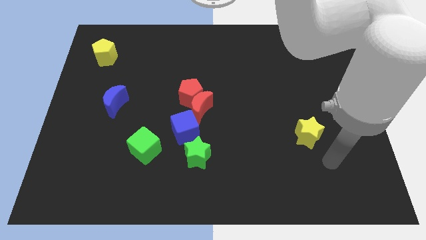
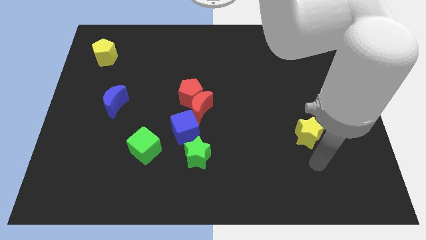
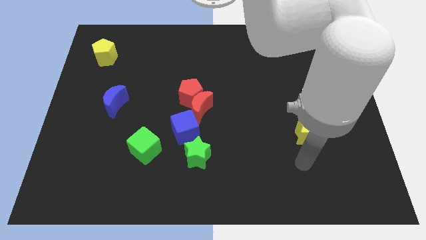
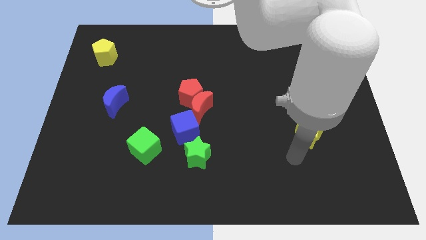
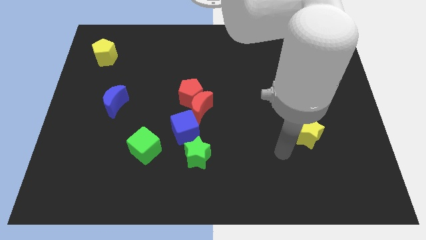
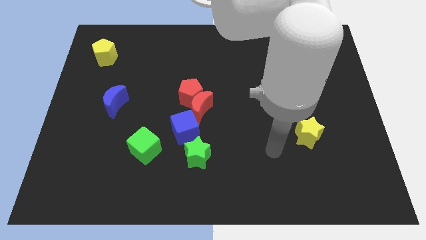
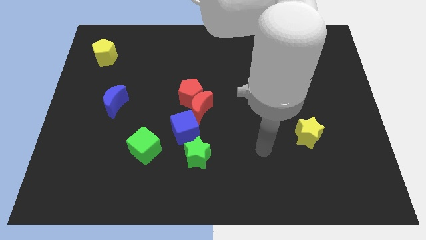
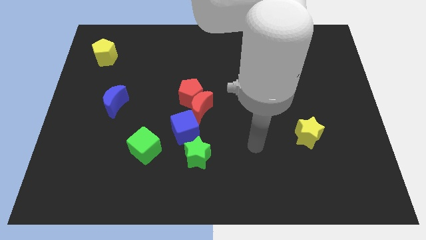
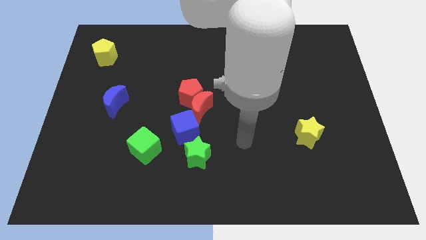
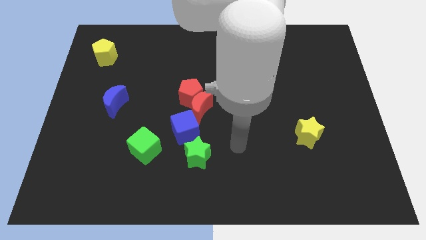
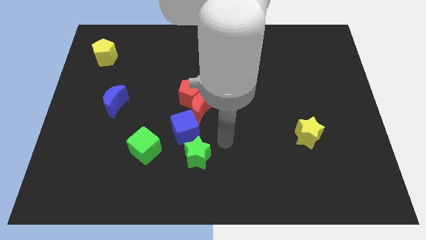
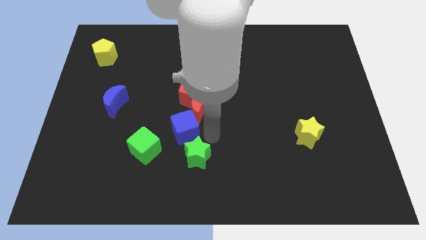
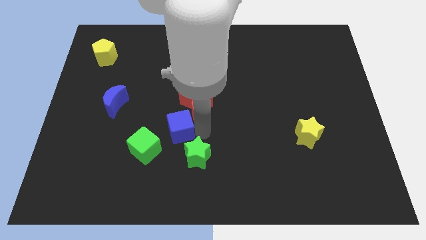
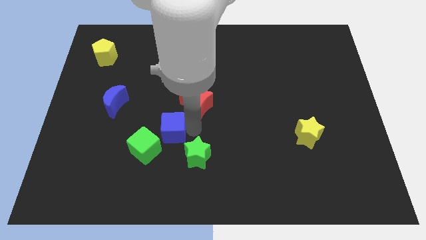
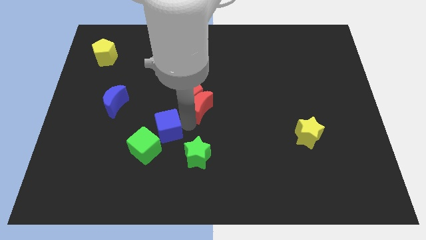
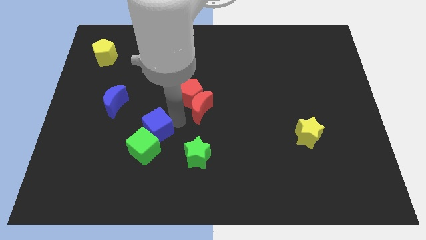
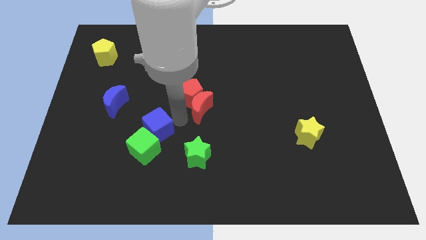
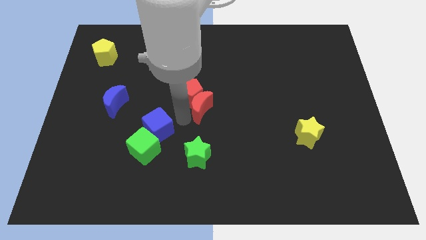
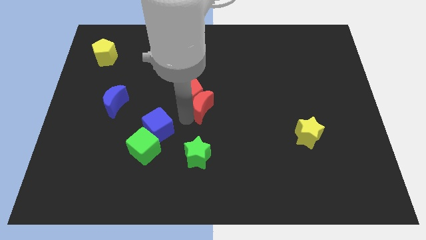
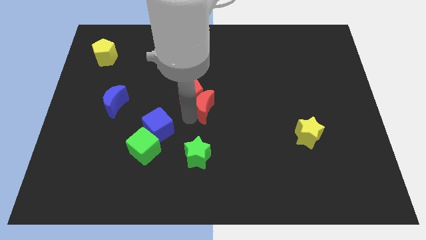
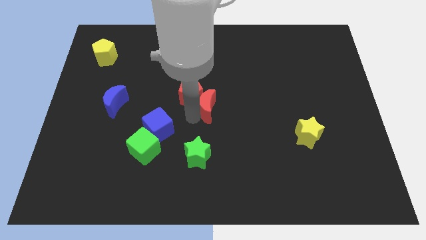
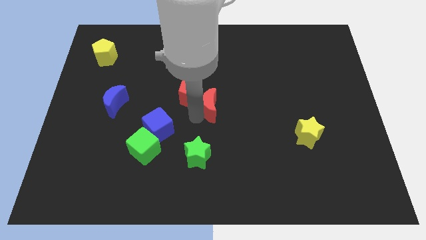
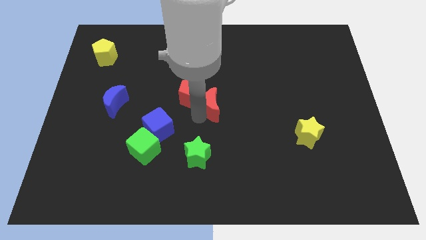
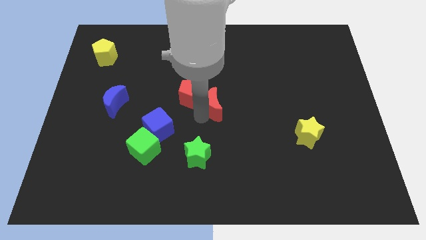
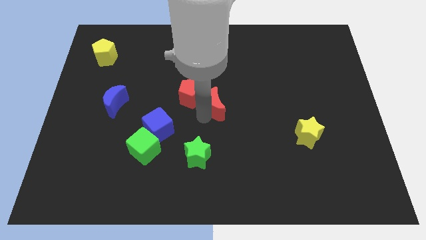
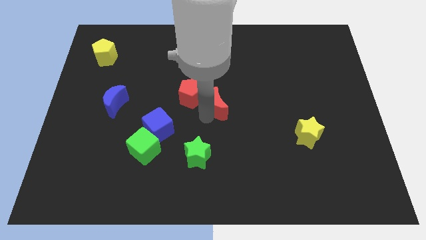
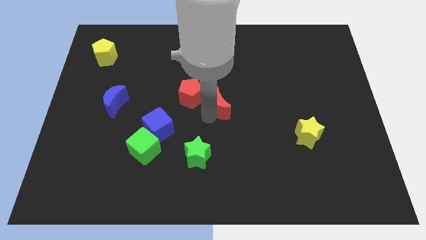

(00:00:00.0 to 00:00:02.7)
pull the red moon apart from the red pentagon and blue cube

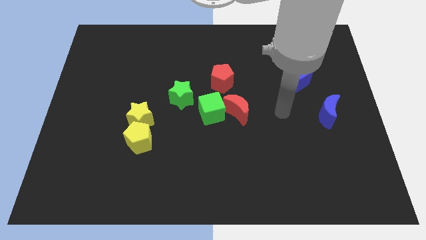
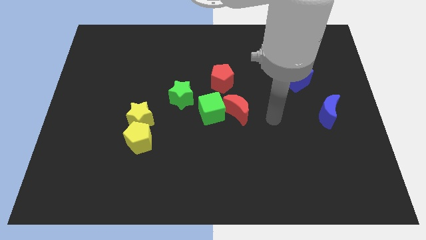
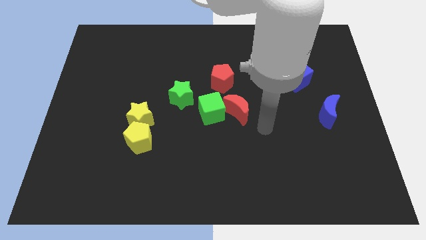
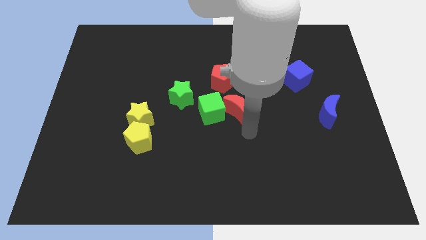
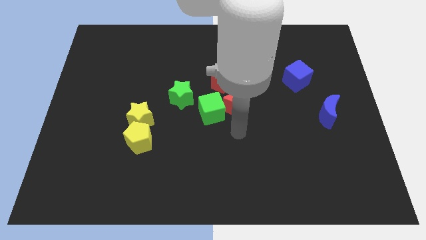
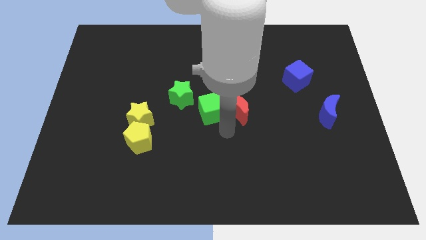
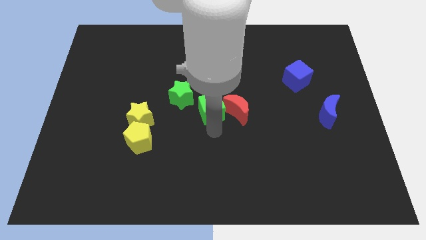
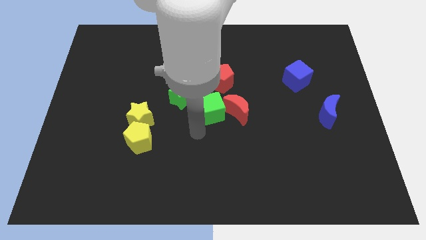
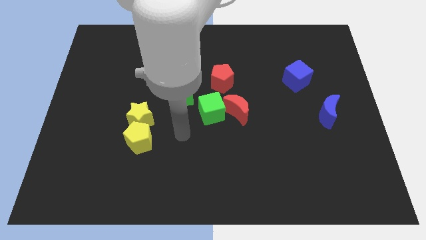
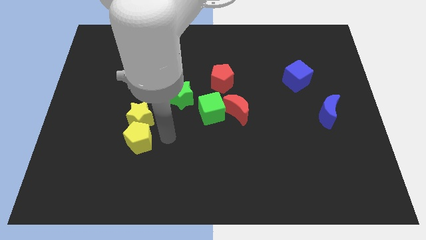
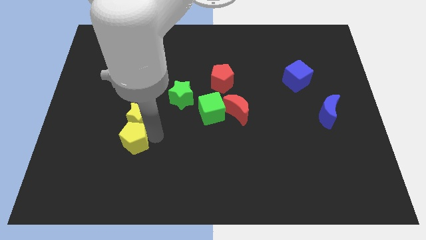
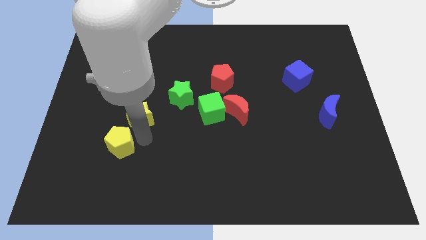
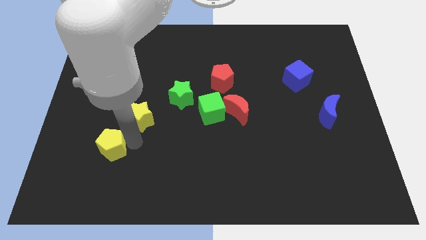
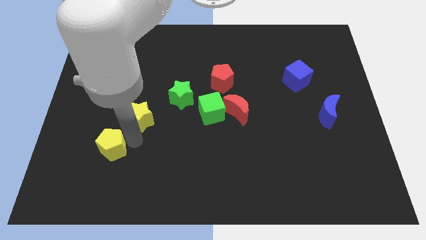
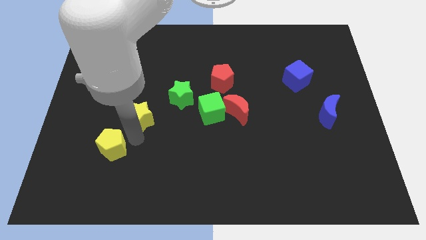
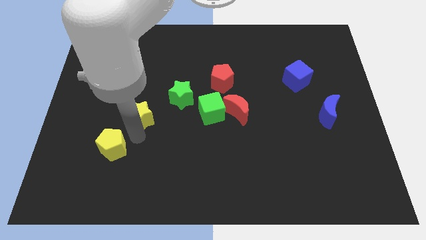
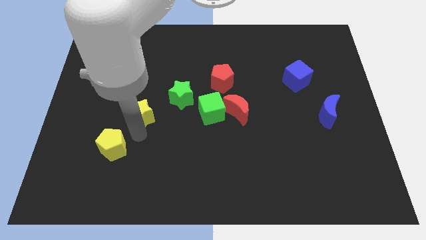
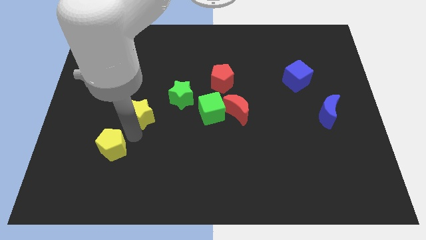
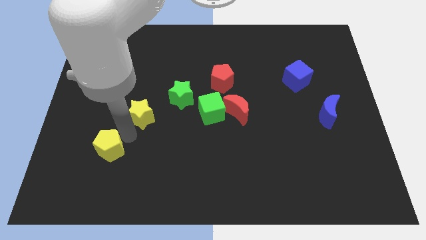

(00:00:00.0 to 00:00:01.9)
pull the yellow star apart from the yellow pentagon

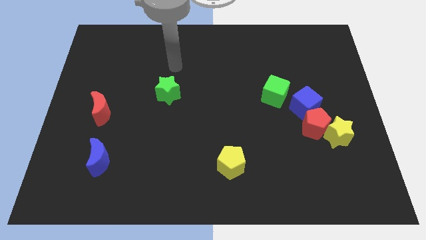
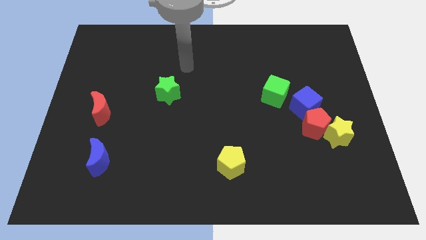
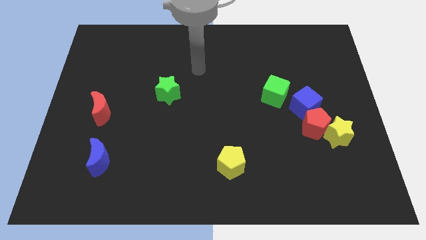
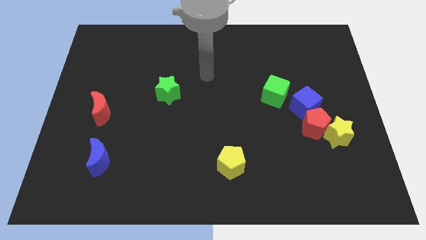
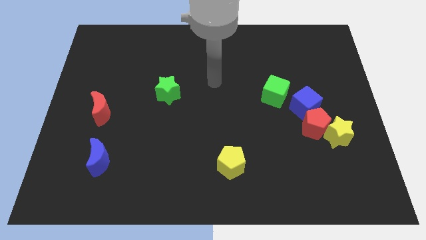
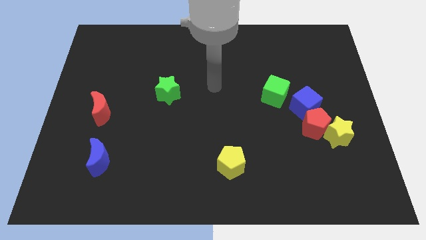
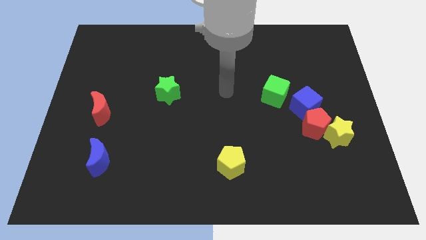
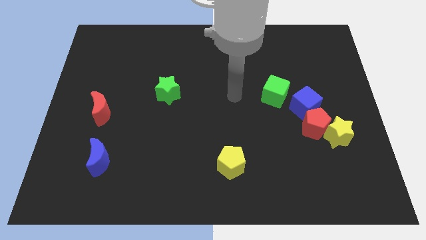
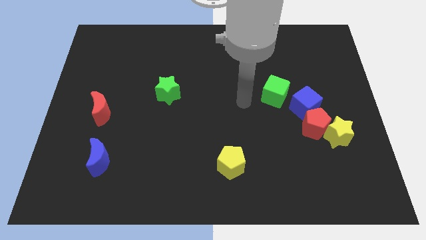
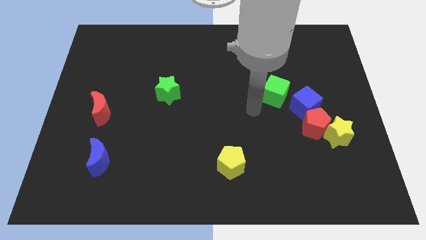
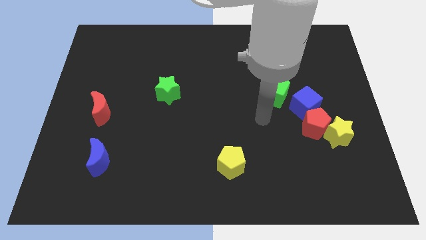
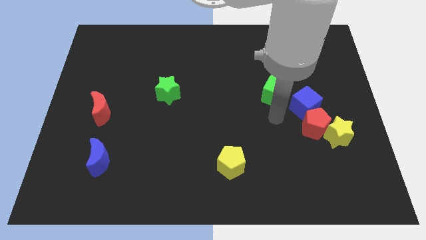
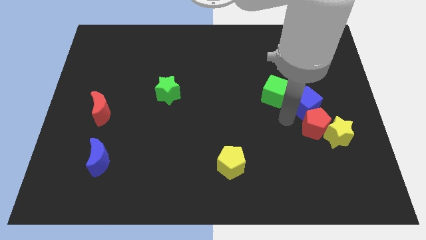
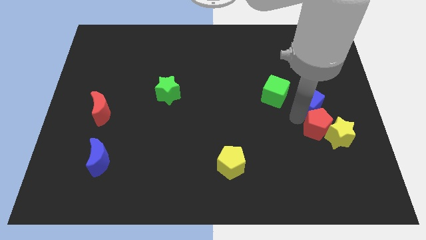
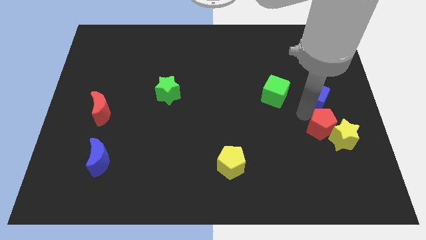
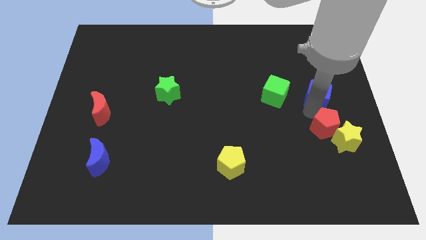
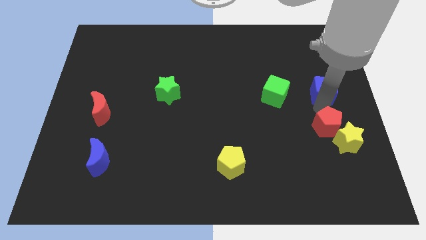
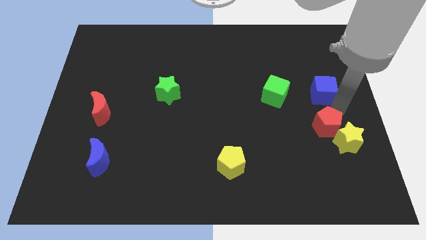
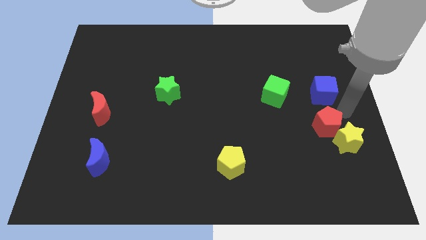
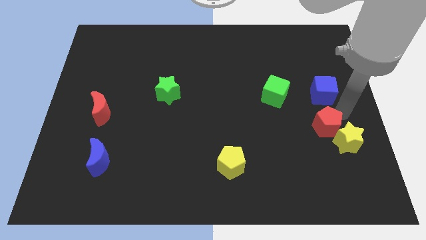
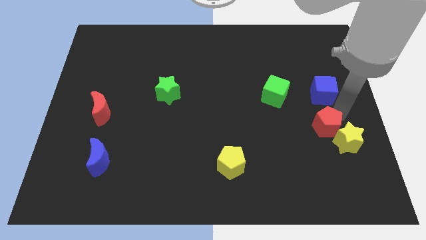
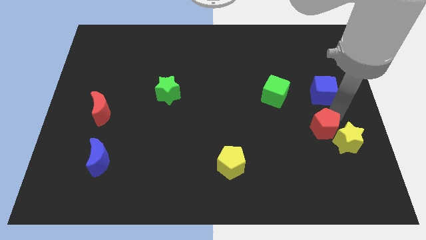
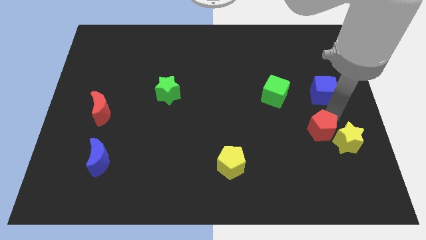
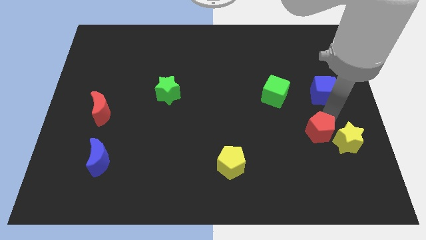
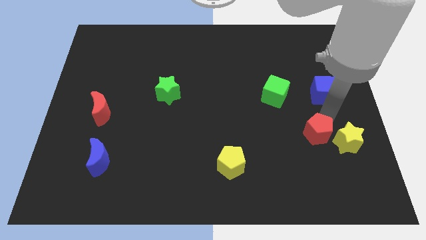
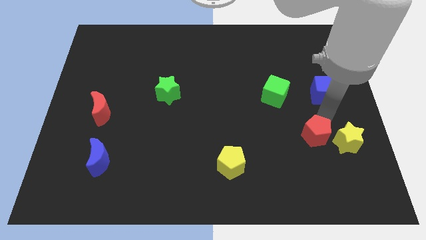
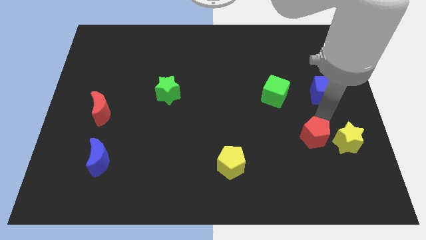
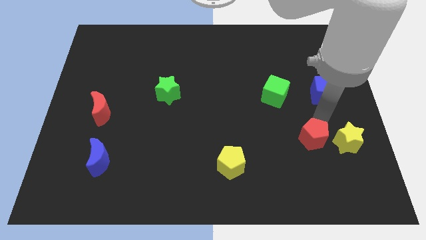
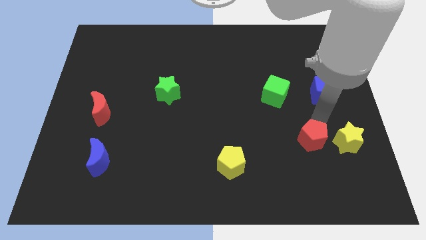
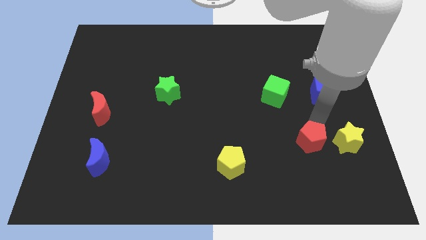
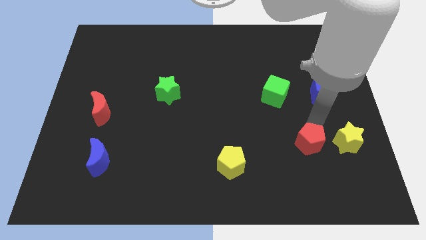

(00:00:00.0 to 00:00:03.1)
pull the red pentagon apart from the yellow star and blue cube

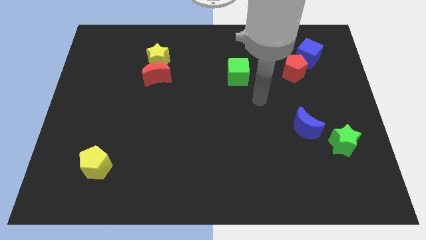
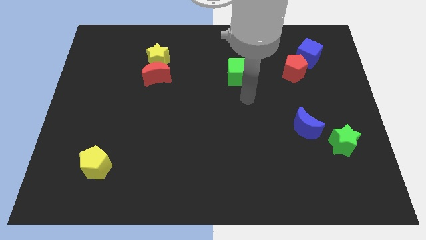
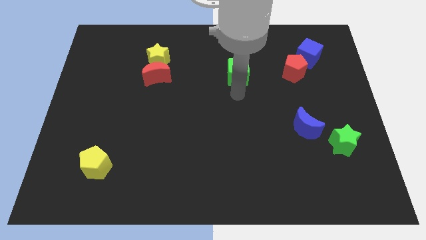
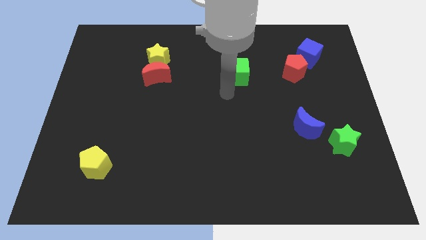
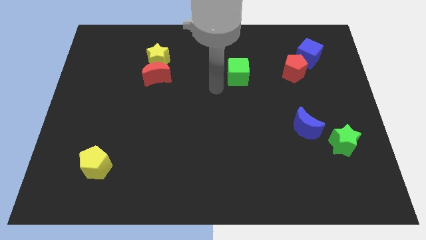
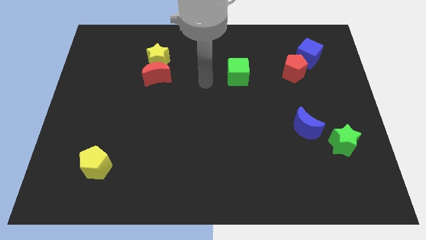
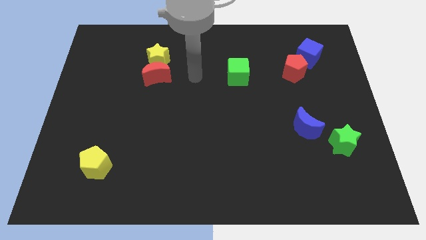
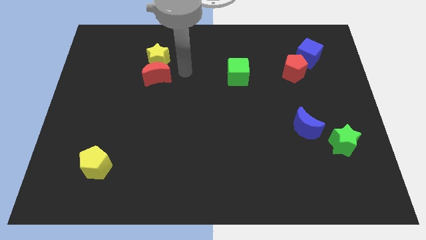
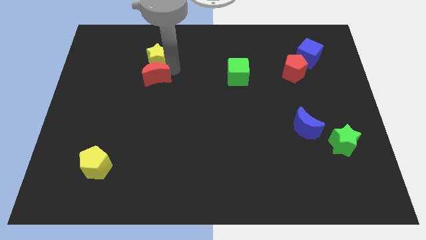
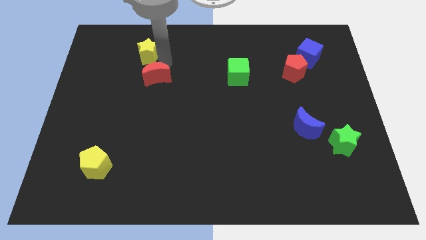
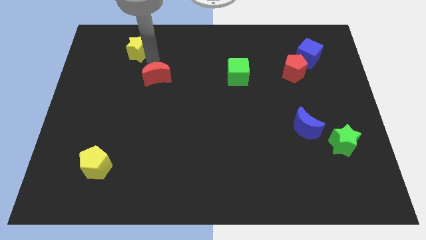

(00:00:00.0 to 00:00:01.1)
pull the red moon apart from the yellow star

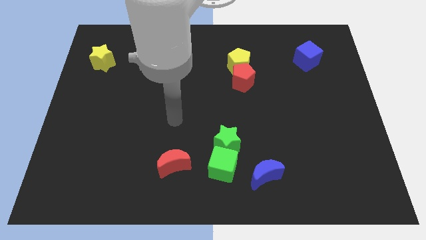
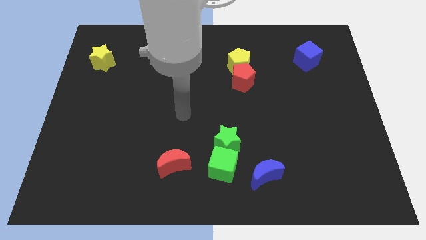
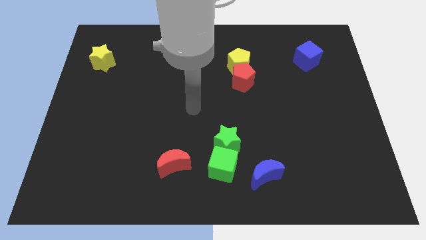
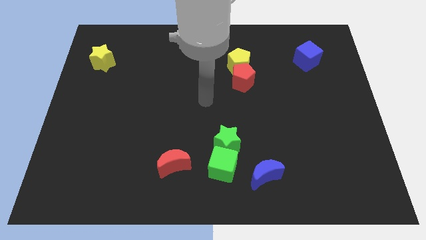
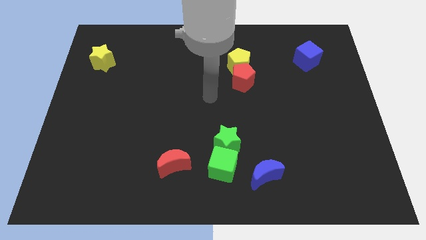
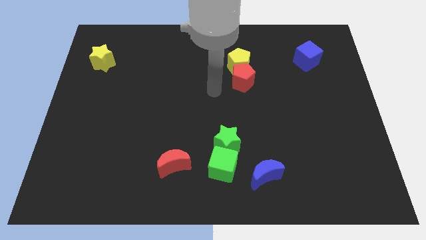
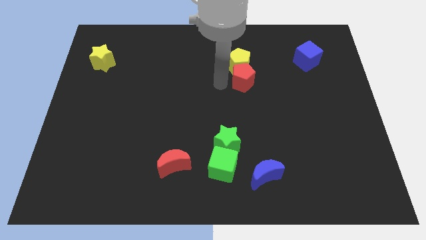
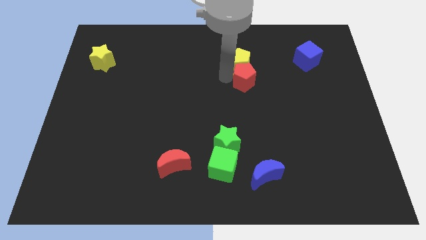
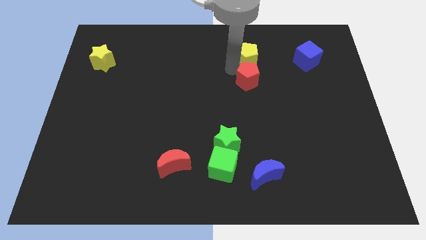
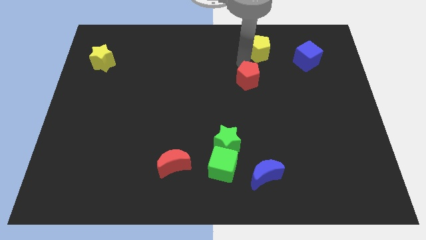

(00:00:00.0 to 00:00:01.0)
move the red pentagon away from the yellow pentagon
